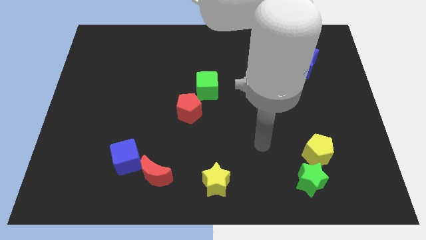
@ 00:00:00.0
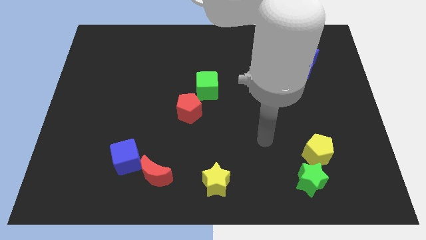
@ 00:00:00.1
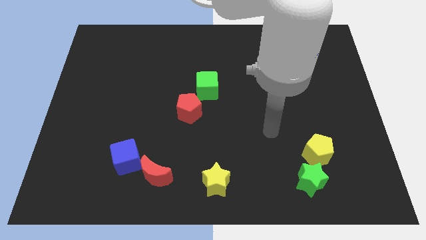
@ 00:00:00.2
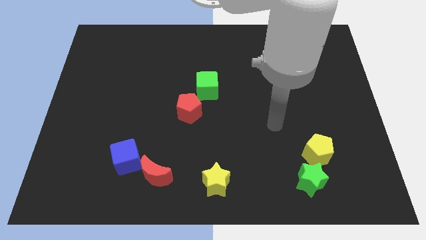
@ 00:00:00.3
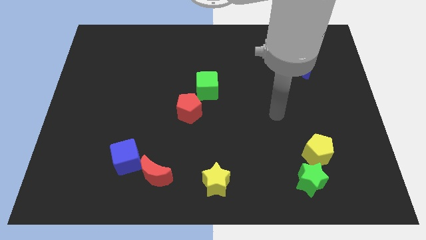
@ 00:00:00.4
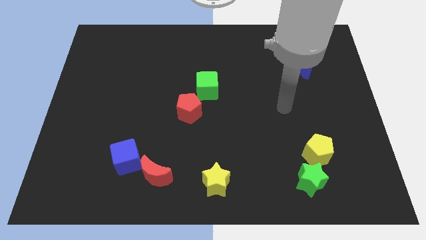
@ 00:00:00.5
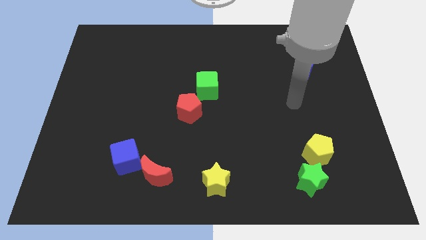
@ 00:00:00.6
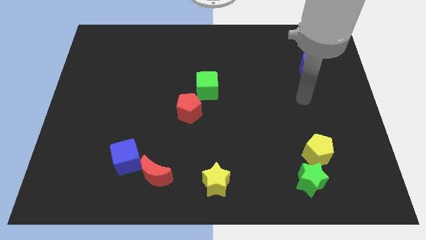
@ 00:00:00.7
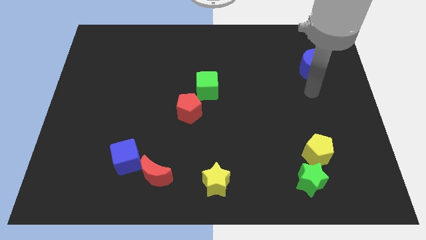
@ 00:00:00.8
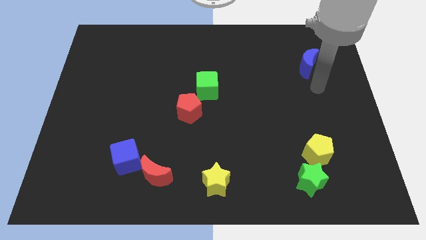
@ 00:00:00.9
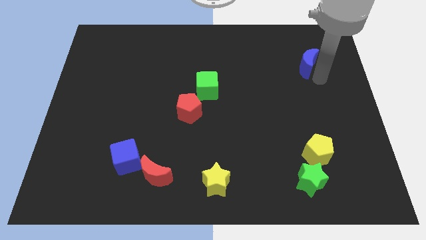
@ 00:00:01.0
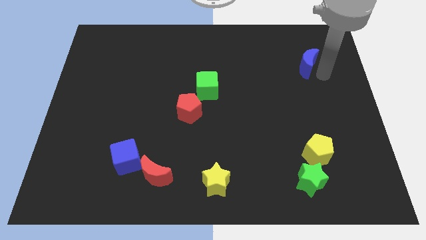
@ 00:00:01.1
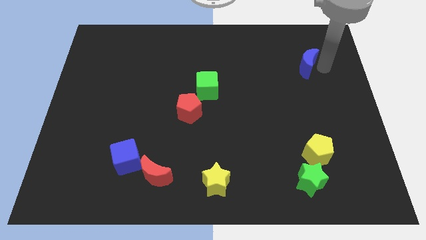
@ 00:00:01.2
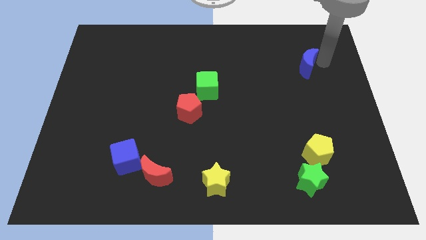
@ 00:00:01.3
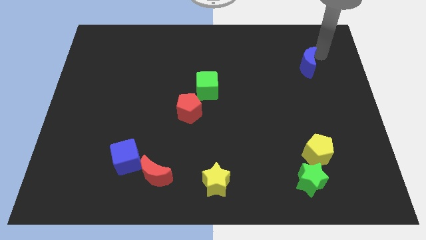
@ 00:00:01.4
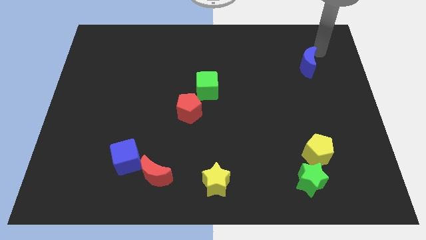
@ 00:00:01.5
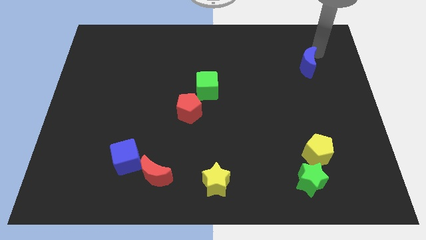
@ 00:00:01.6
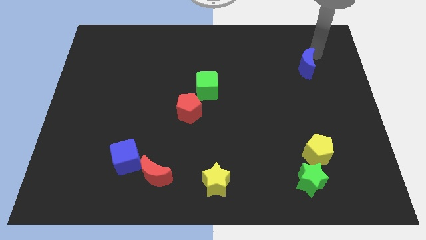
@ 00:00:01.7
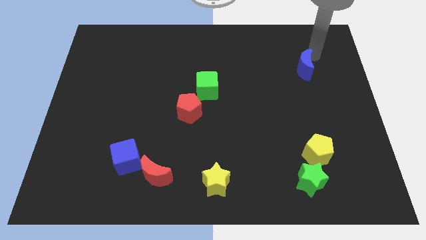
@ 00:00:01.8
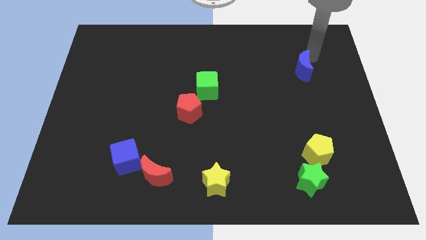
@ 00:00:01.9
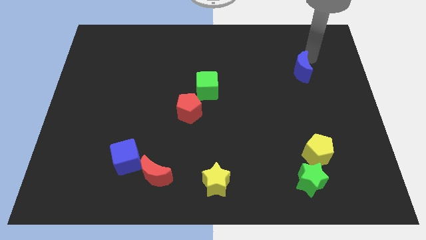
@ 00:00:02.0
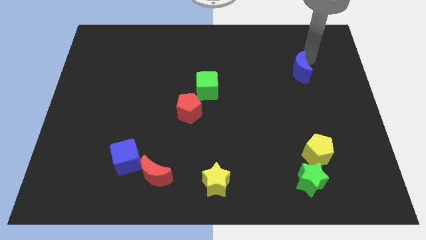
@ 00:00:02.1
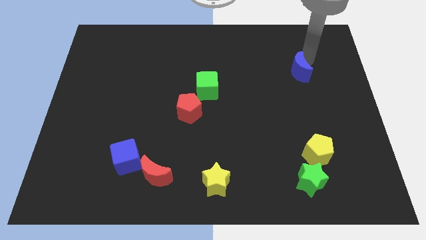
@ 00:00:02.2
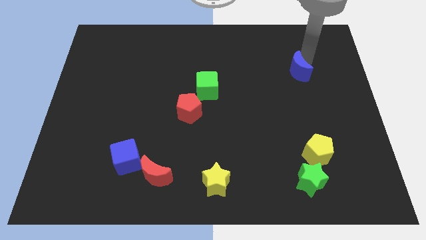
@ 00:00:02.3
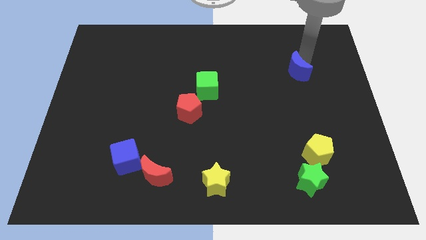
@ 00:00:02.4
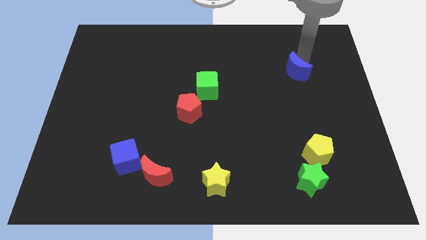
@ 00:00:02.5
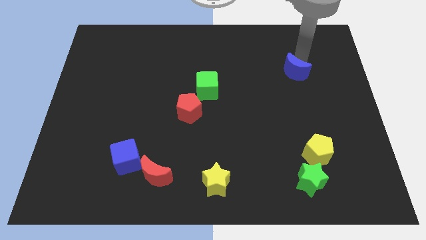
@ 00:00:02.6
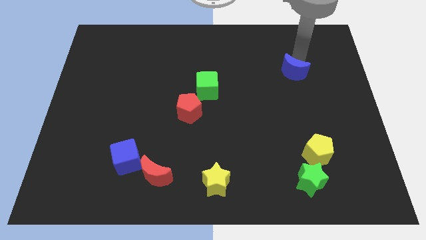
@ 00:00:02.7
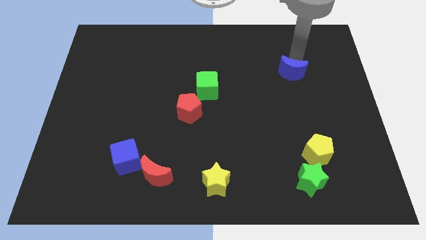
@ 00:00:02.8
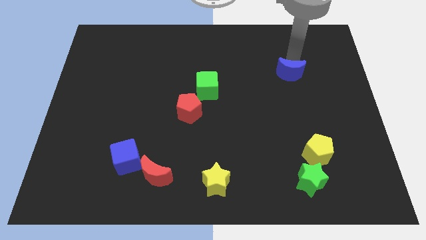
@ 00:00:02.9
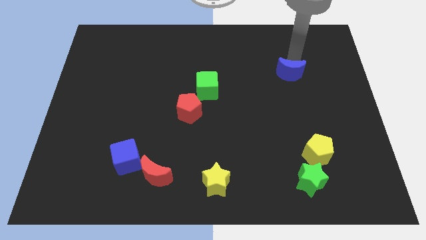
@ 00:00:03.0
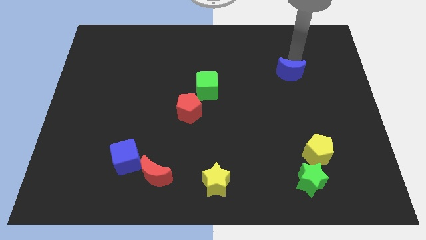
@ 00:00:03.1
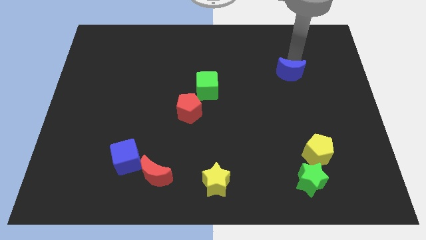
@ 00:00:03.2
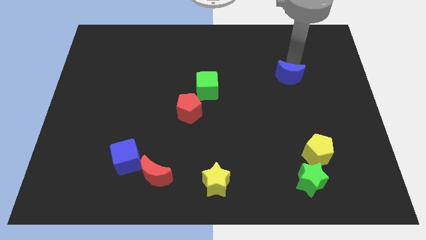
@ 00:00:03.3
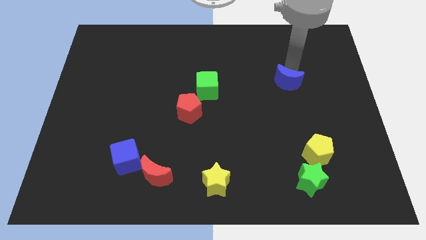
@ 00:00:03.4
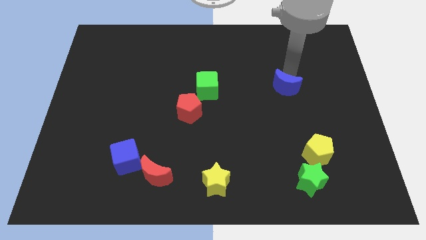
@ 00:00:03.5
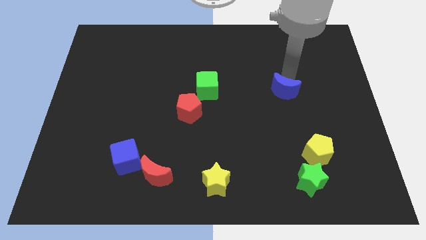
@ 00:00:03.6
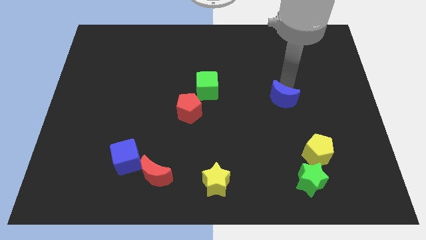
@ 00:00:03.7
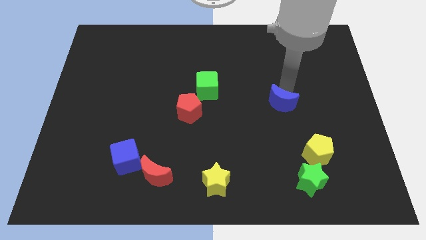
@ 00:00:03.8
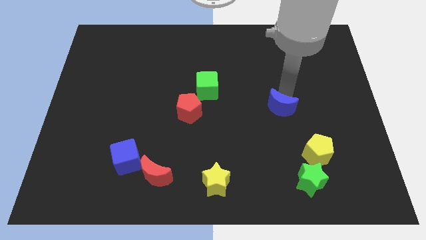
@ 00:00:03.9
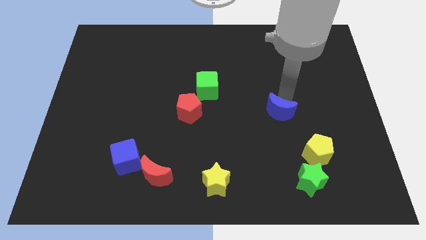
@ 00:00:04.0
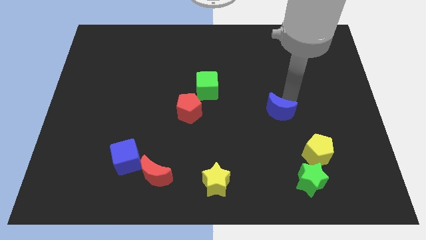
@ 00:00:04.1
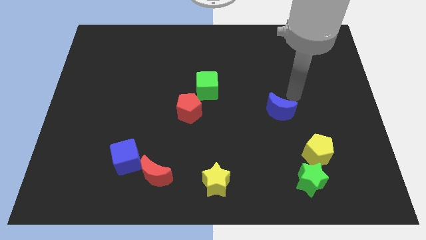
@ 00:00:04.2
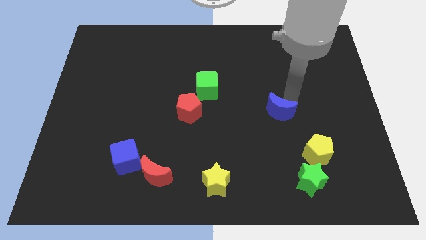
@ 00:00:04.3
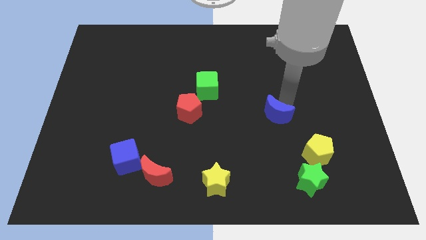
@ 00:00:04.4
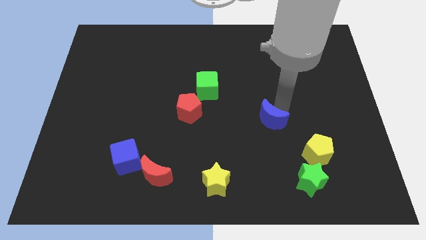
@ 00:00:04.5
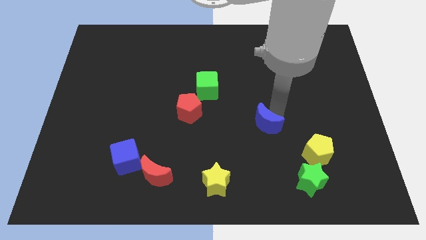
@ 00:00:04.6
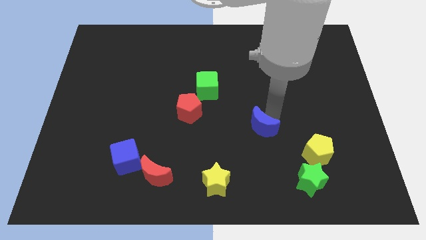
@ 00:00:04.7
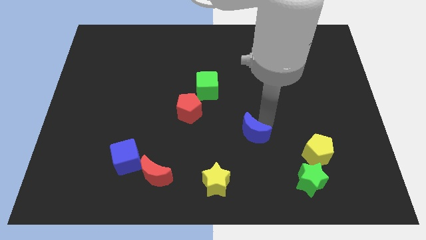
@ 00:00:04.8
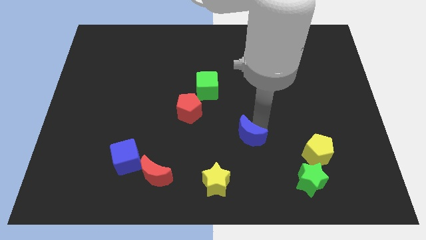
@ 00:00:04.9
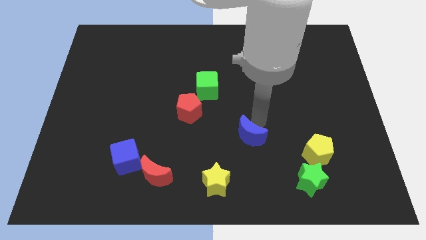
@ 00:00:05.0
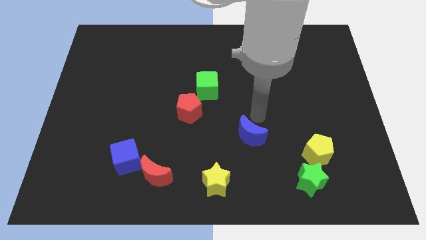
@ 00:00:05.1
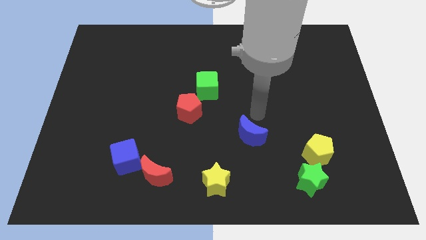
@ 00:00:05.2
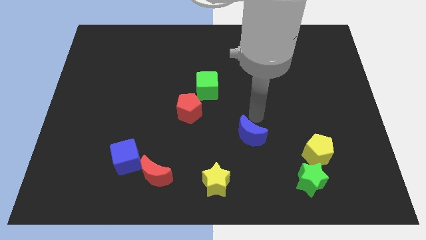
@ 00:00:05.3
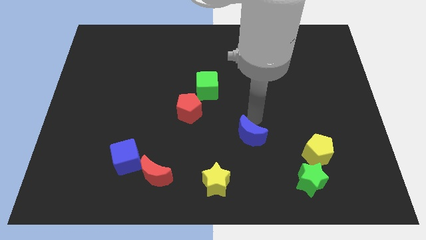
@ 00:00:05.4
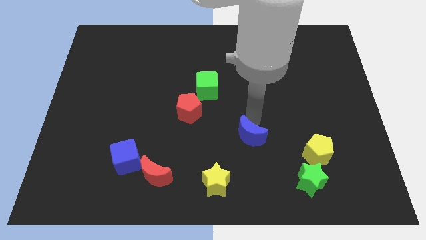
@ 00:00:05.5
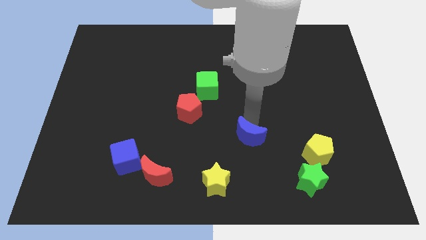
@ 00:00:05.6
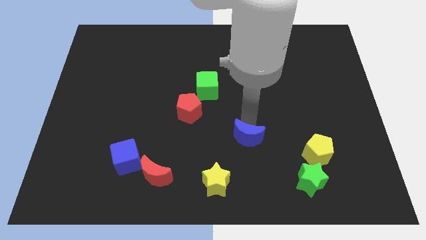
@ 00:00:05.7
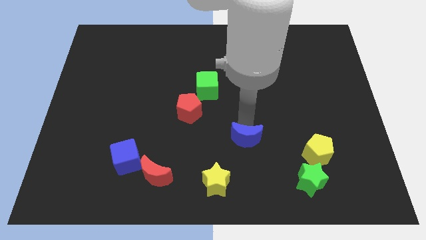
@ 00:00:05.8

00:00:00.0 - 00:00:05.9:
push the blue moon to the top right of the yellow star

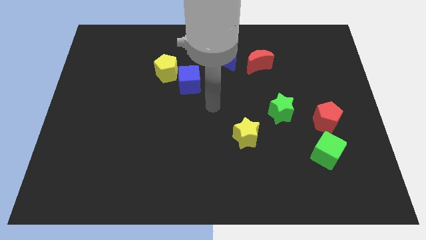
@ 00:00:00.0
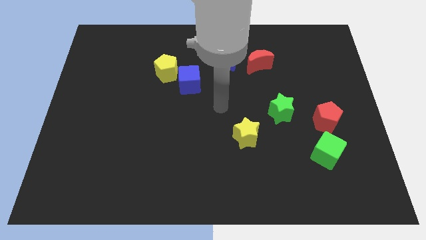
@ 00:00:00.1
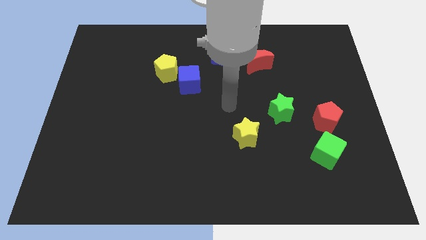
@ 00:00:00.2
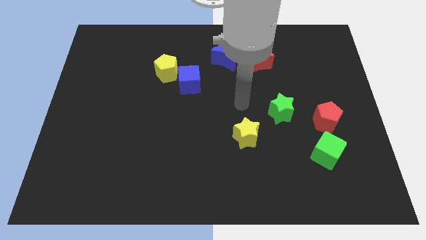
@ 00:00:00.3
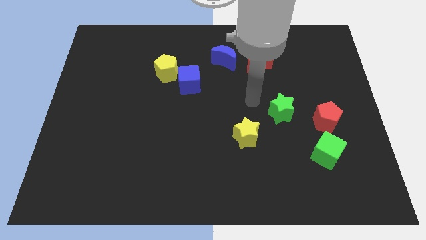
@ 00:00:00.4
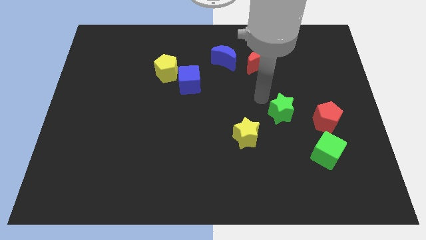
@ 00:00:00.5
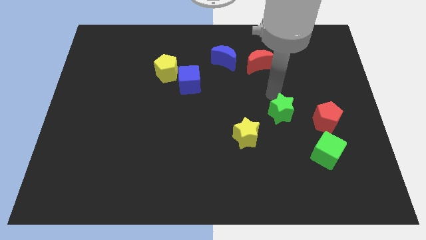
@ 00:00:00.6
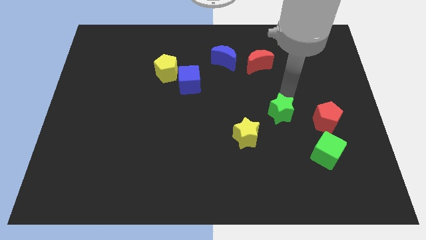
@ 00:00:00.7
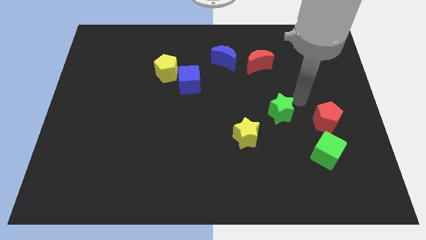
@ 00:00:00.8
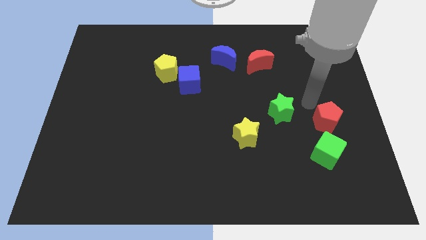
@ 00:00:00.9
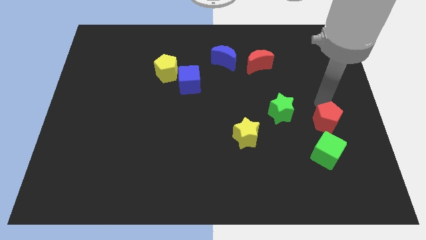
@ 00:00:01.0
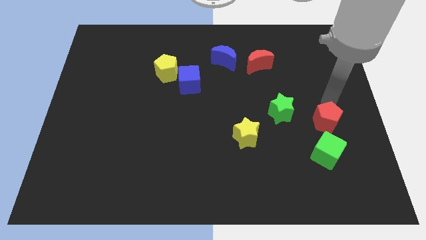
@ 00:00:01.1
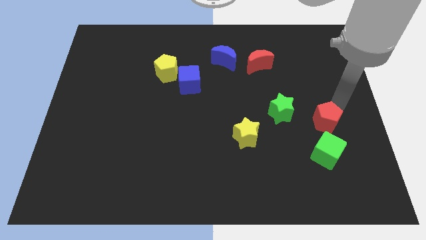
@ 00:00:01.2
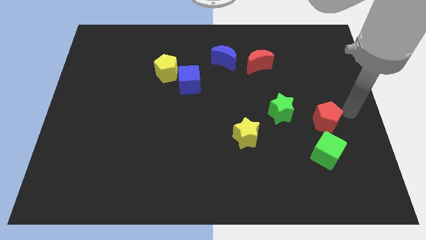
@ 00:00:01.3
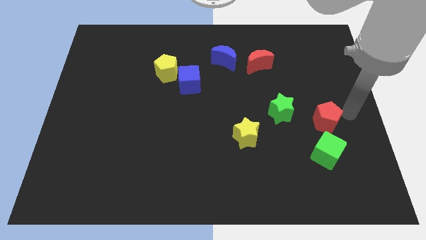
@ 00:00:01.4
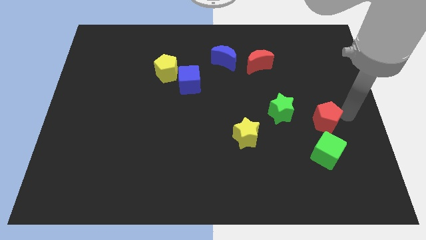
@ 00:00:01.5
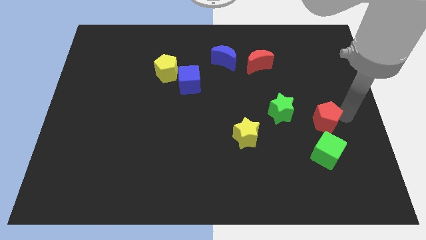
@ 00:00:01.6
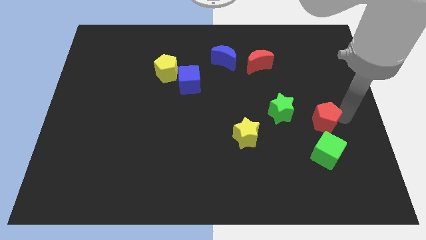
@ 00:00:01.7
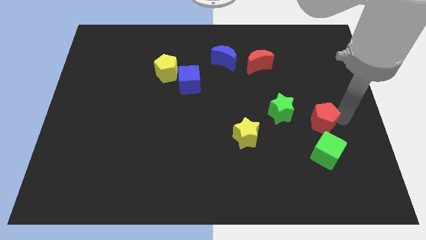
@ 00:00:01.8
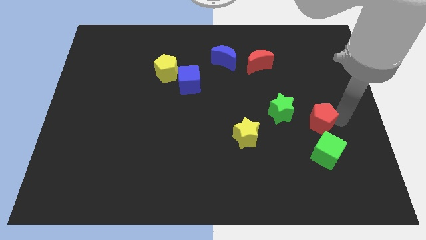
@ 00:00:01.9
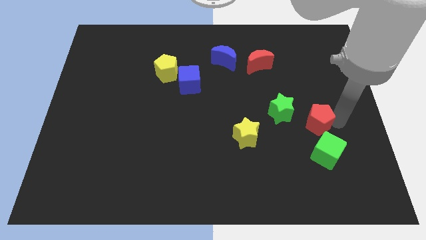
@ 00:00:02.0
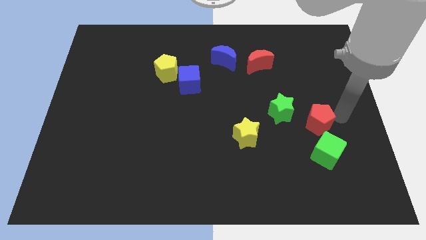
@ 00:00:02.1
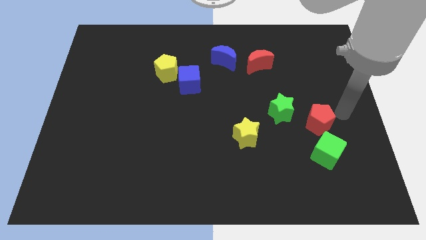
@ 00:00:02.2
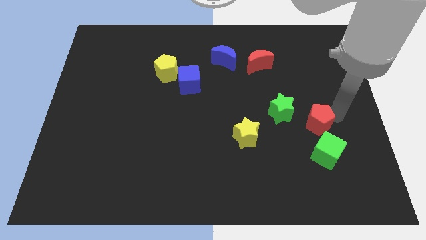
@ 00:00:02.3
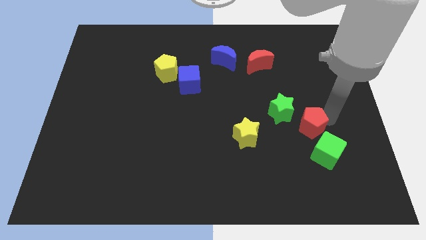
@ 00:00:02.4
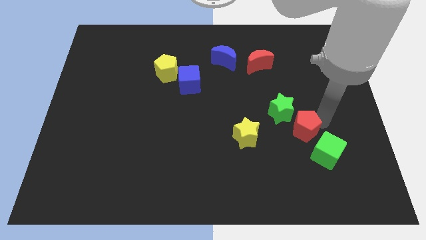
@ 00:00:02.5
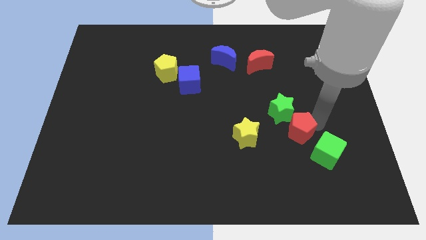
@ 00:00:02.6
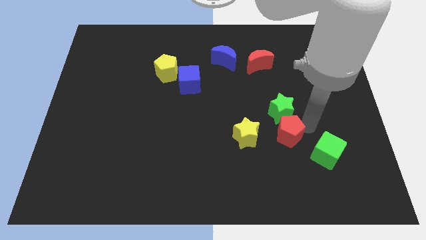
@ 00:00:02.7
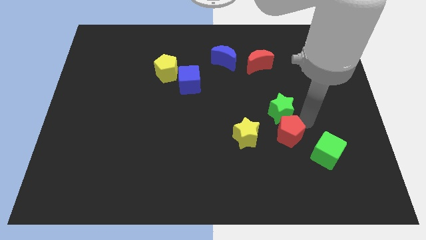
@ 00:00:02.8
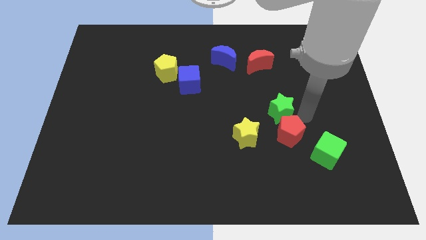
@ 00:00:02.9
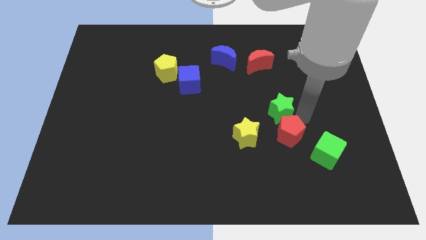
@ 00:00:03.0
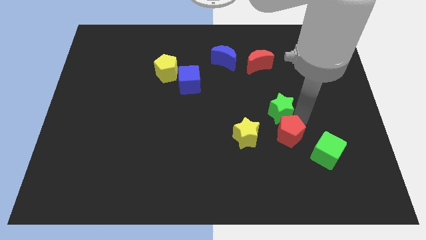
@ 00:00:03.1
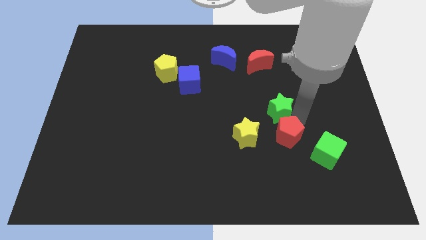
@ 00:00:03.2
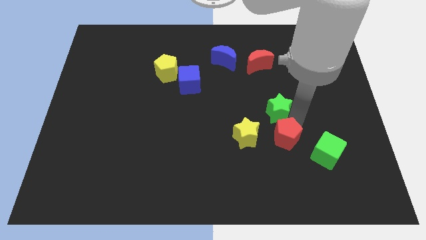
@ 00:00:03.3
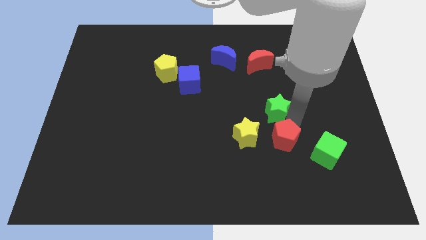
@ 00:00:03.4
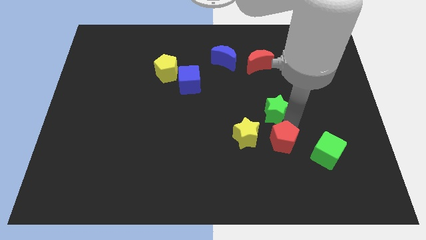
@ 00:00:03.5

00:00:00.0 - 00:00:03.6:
push the red pentagon to the bottom right side of the yellow star
